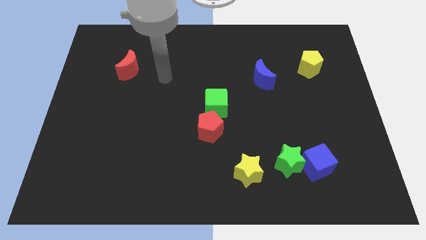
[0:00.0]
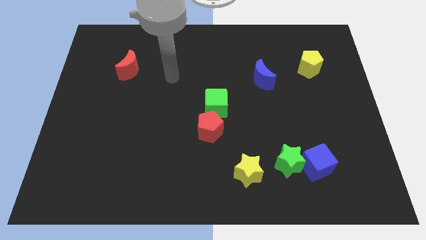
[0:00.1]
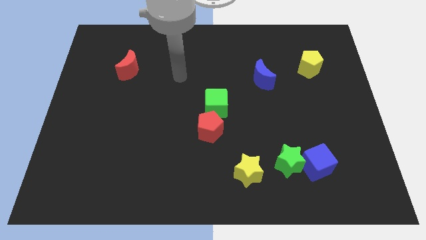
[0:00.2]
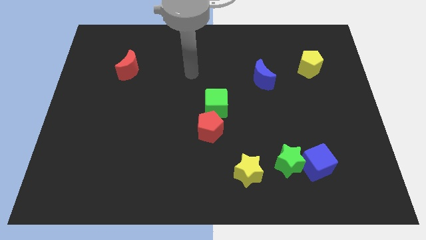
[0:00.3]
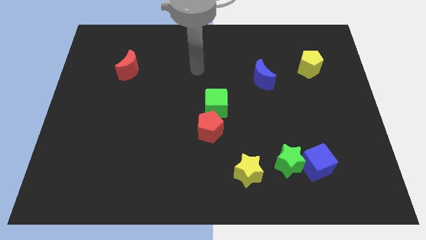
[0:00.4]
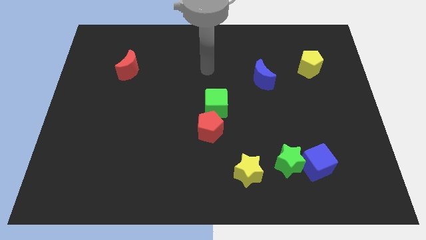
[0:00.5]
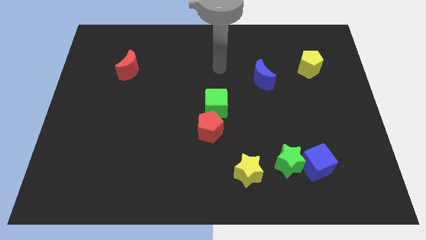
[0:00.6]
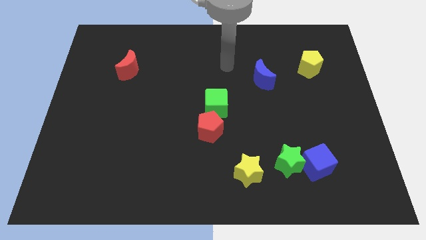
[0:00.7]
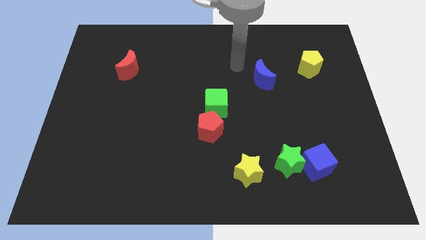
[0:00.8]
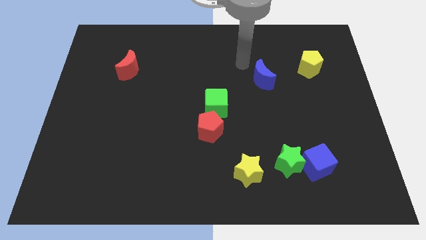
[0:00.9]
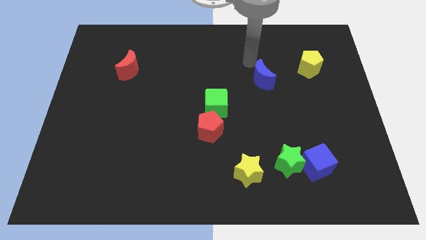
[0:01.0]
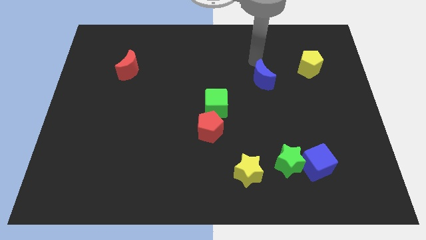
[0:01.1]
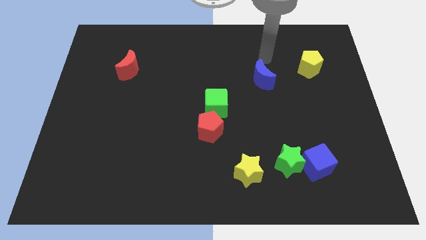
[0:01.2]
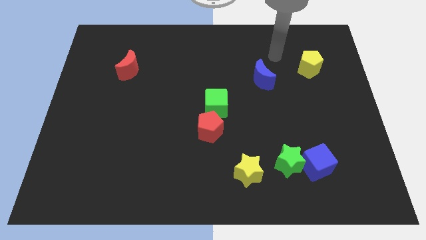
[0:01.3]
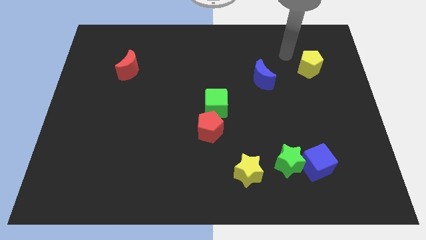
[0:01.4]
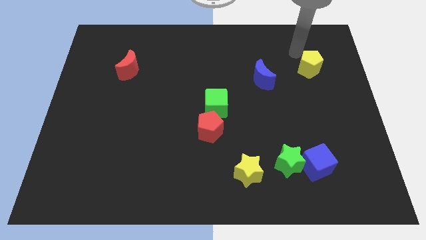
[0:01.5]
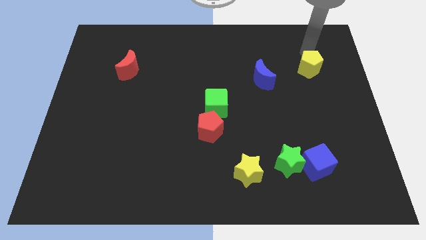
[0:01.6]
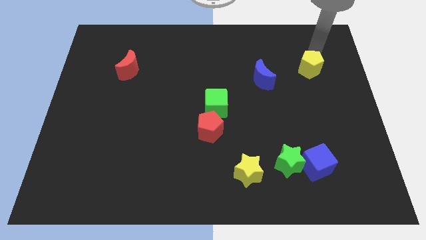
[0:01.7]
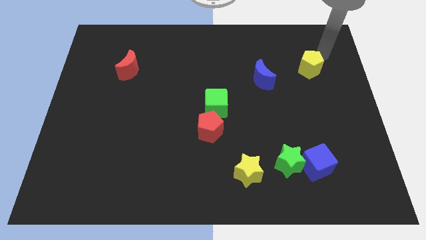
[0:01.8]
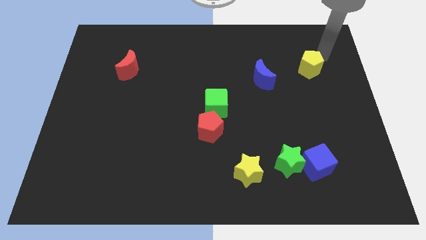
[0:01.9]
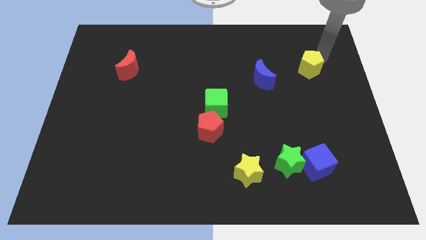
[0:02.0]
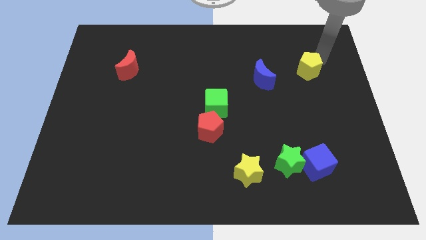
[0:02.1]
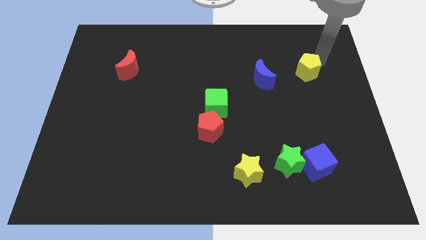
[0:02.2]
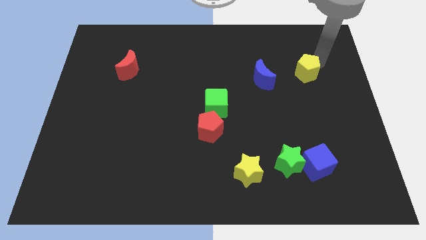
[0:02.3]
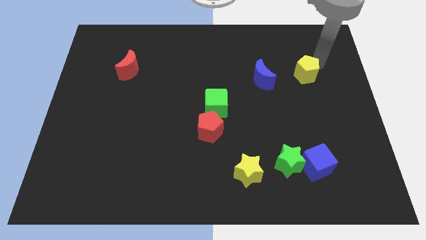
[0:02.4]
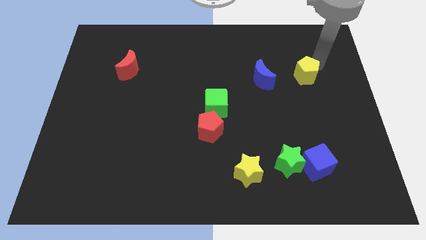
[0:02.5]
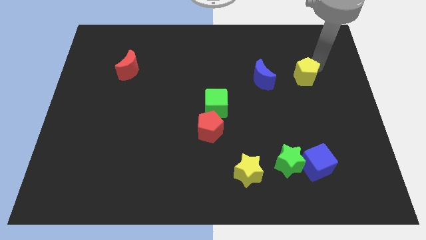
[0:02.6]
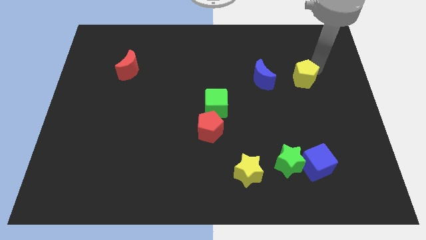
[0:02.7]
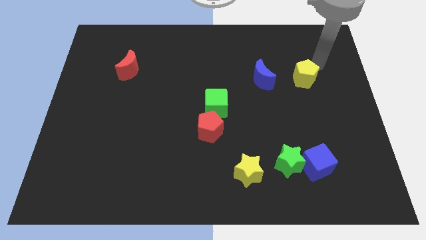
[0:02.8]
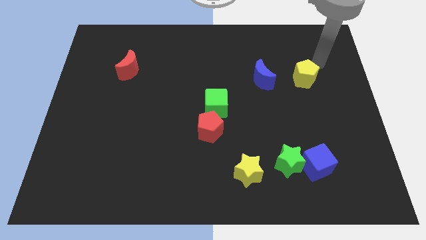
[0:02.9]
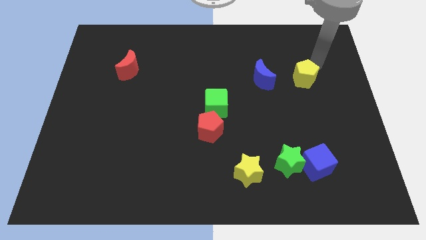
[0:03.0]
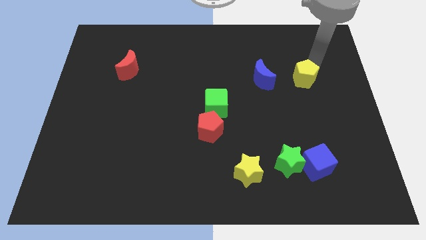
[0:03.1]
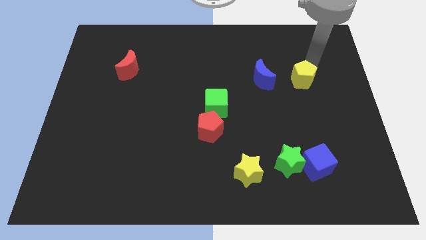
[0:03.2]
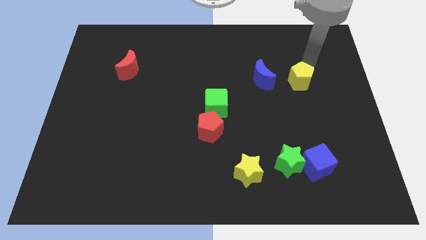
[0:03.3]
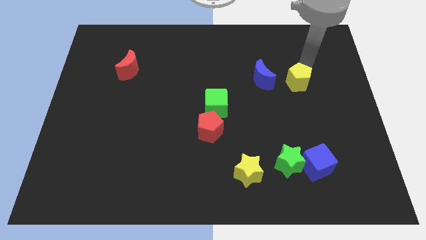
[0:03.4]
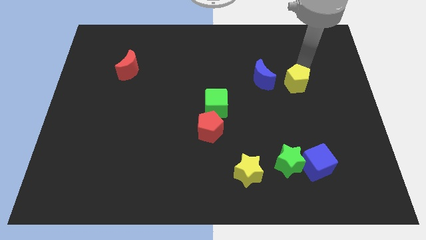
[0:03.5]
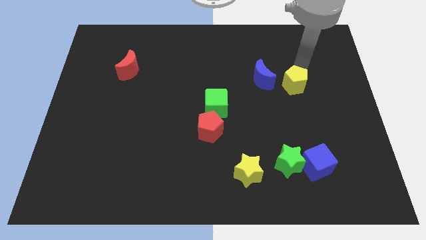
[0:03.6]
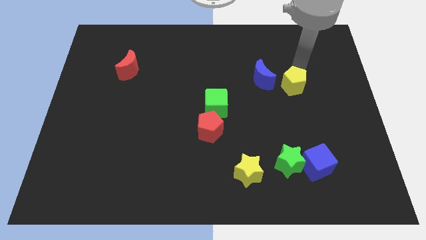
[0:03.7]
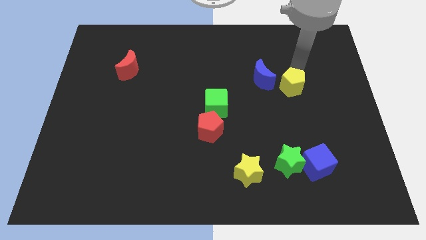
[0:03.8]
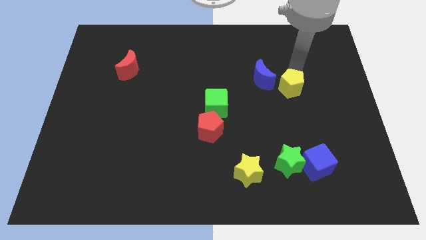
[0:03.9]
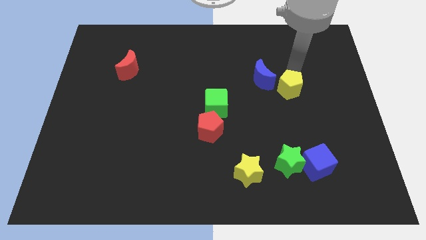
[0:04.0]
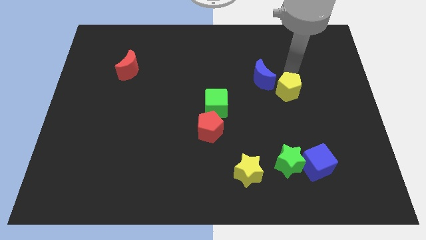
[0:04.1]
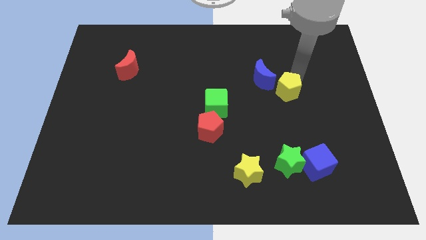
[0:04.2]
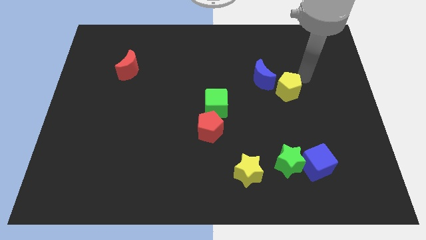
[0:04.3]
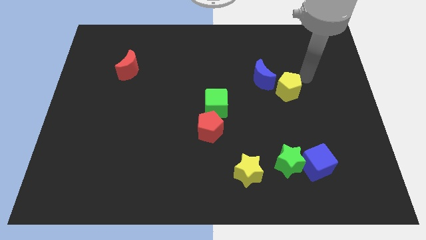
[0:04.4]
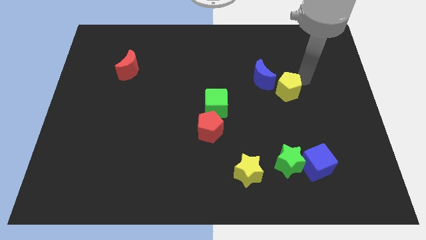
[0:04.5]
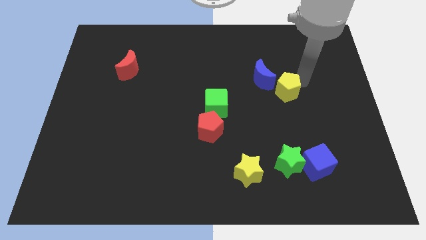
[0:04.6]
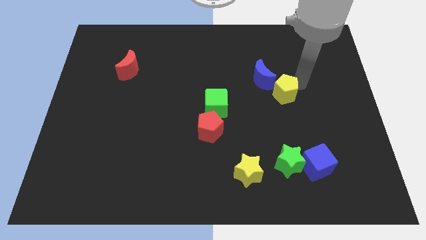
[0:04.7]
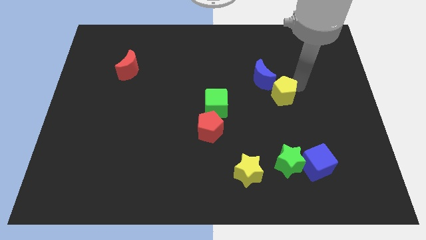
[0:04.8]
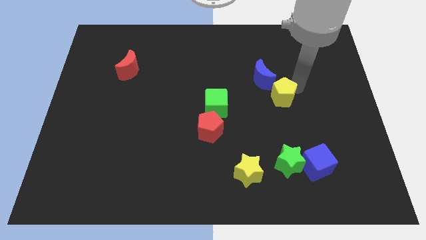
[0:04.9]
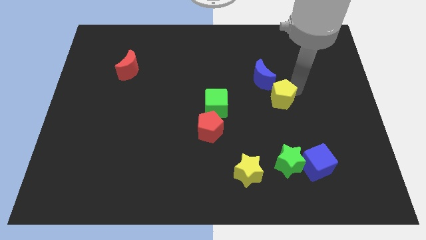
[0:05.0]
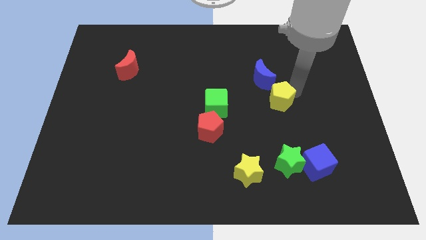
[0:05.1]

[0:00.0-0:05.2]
put the yellow pentagon to the right of the green cube

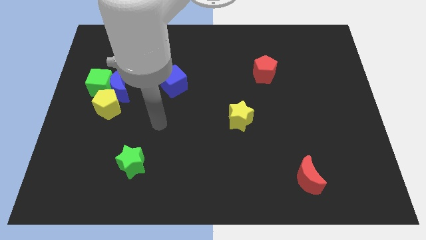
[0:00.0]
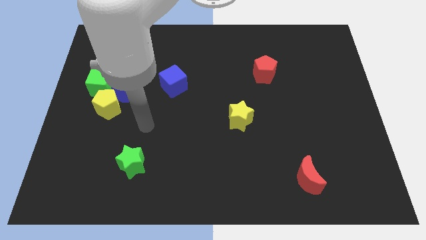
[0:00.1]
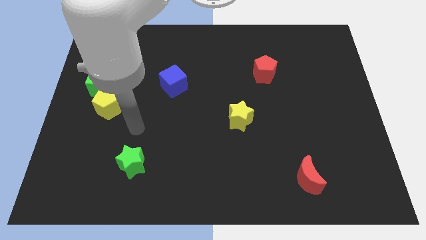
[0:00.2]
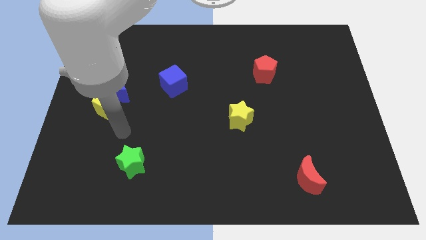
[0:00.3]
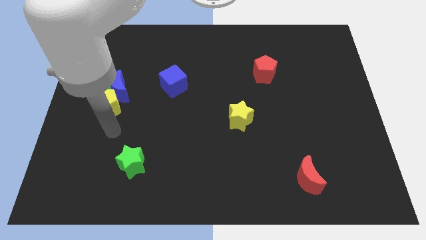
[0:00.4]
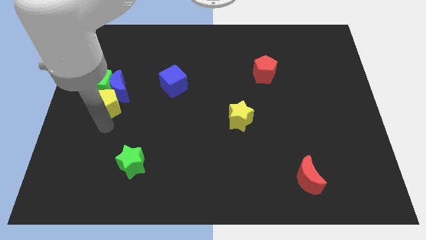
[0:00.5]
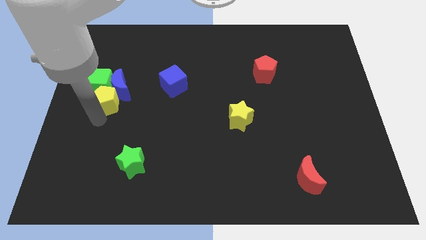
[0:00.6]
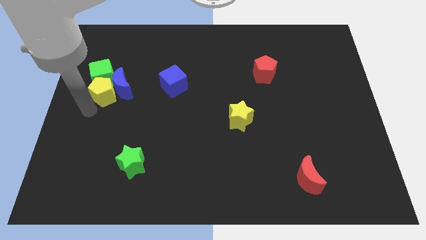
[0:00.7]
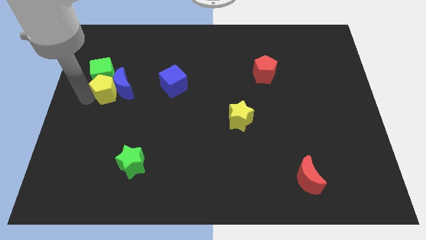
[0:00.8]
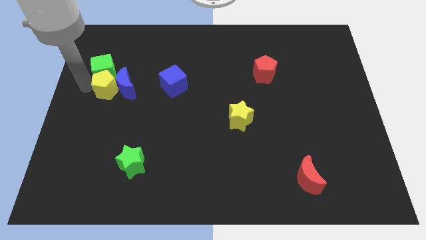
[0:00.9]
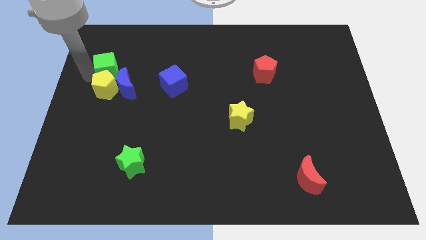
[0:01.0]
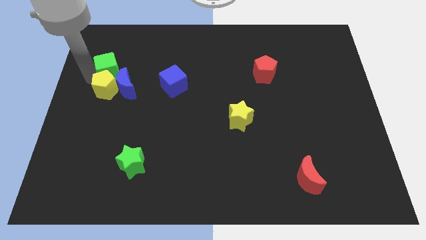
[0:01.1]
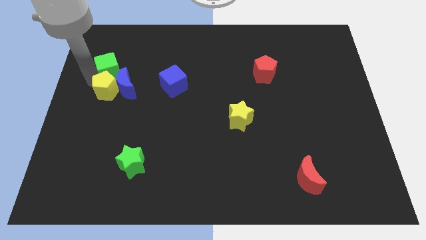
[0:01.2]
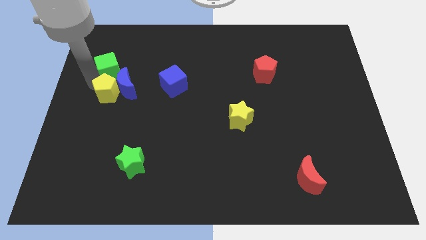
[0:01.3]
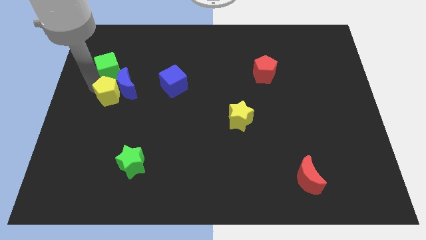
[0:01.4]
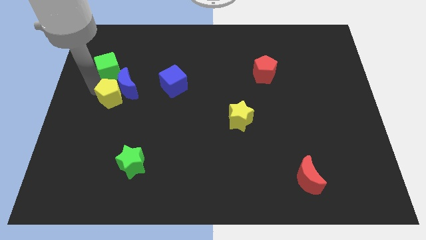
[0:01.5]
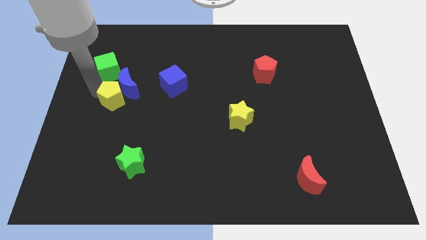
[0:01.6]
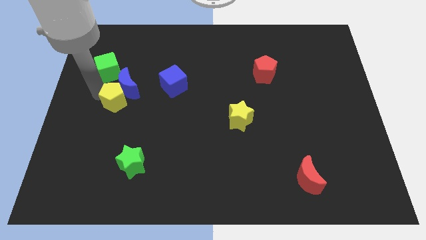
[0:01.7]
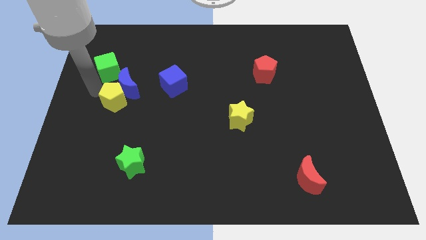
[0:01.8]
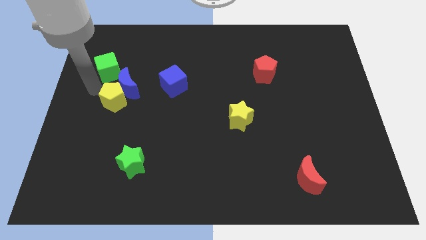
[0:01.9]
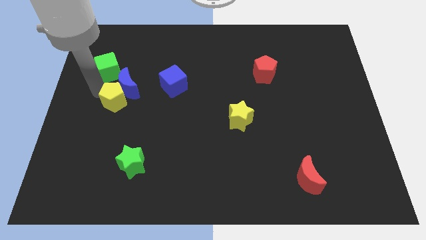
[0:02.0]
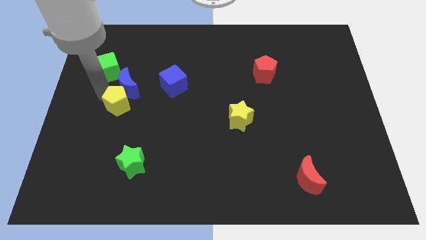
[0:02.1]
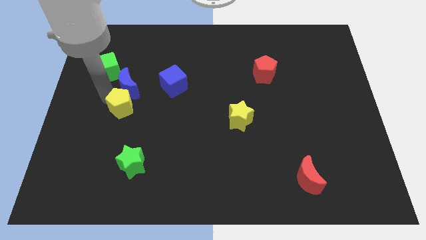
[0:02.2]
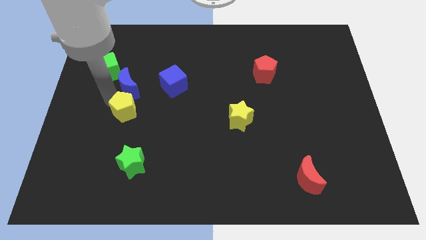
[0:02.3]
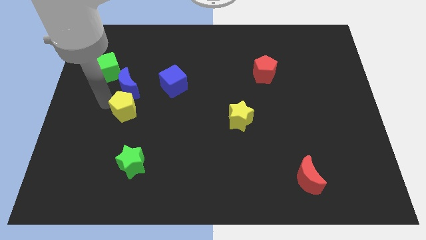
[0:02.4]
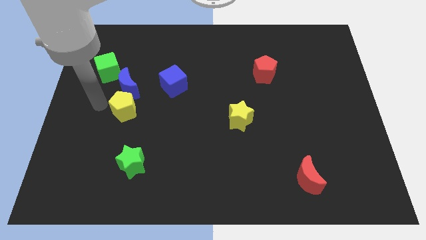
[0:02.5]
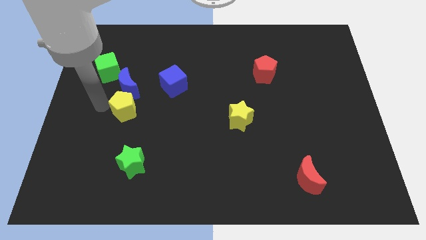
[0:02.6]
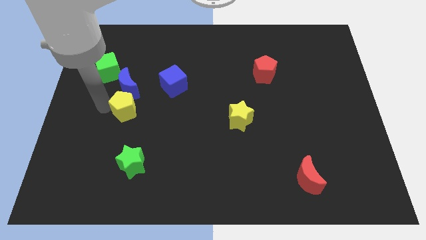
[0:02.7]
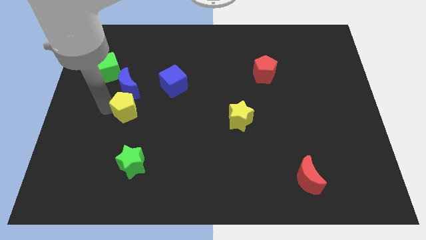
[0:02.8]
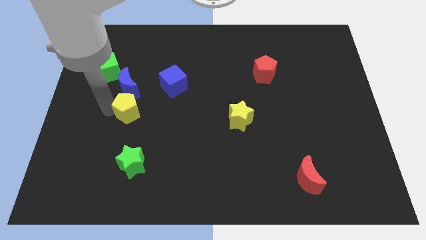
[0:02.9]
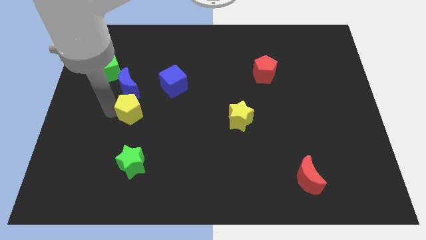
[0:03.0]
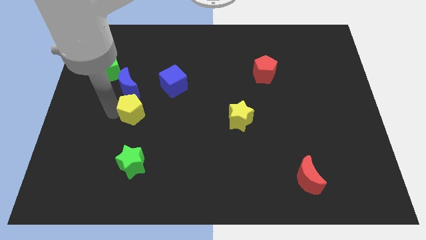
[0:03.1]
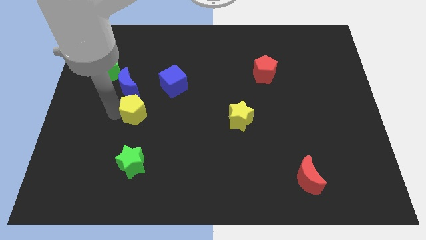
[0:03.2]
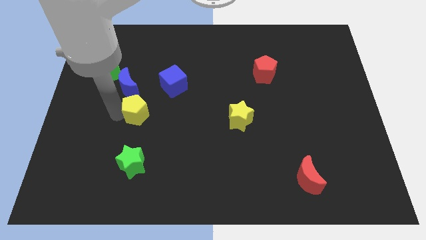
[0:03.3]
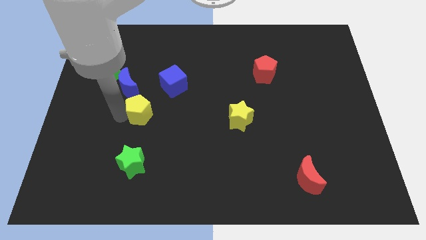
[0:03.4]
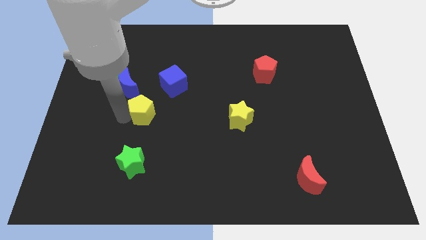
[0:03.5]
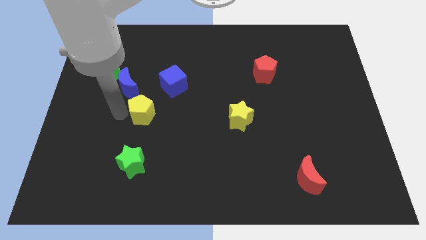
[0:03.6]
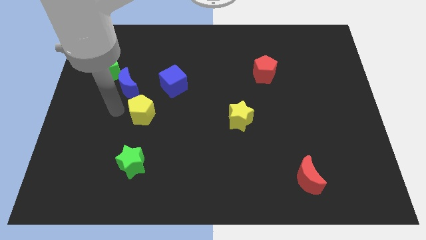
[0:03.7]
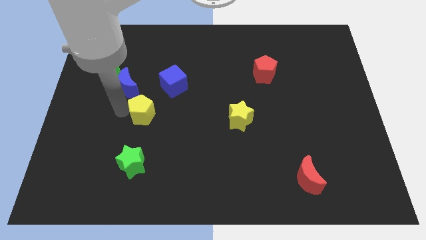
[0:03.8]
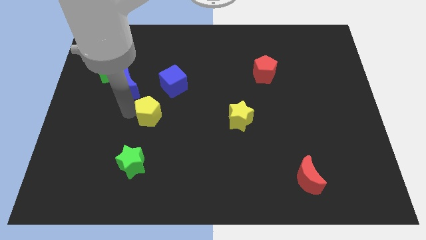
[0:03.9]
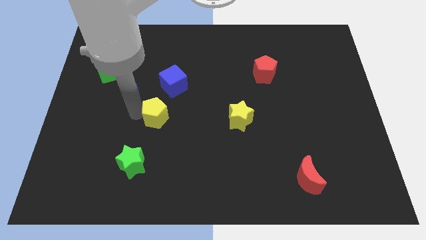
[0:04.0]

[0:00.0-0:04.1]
push the yellow pentagon below the blue cube
